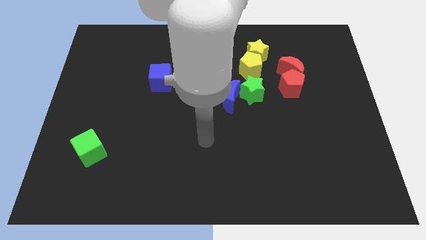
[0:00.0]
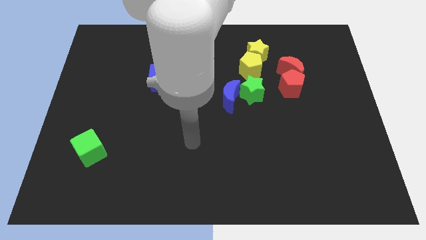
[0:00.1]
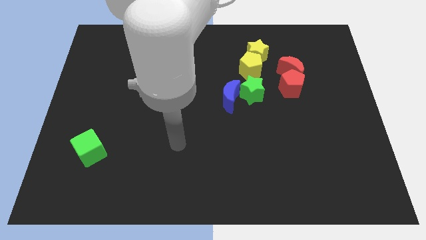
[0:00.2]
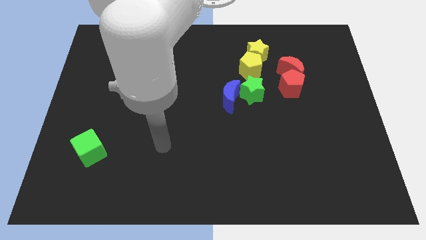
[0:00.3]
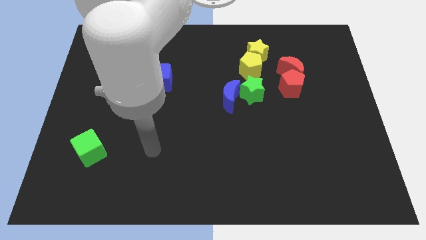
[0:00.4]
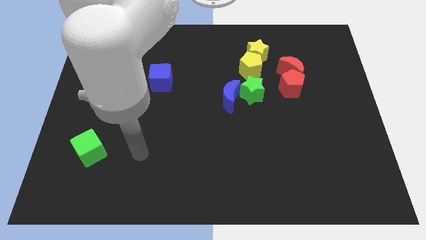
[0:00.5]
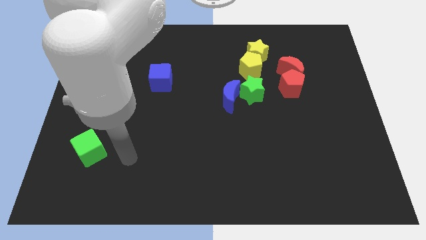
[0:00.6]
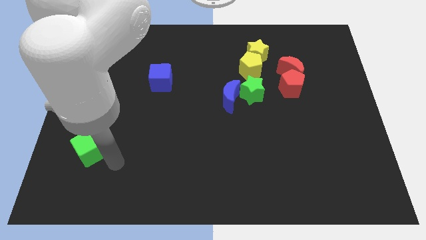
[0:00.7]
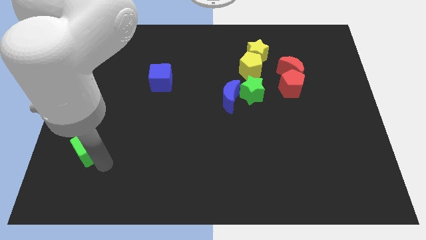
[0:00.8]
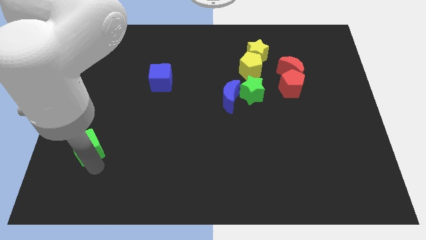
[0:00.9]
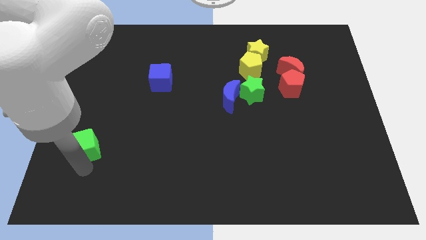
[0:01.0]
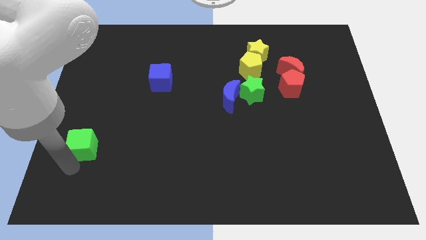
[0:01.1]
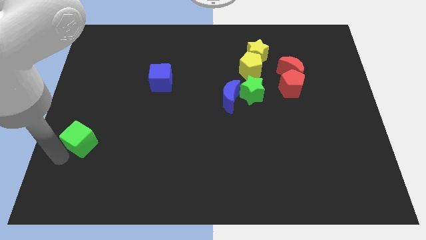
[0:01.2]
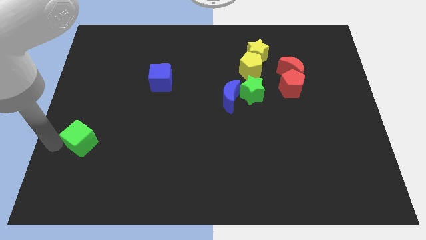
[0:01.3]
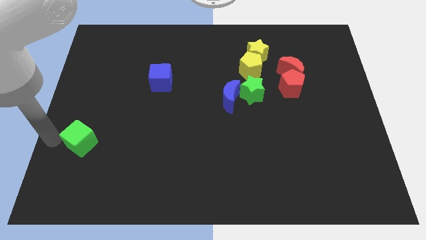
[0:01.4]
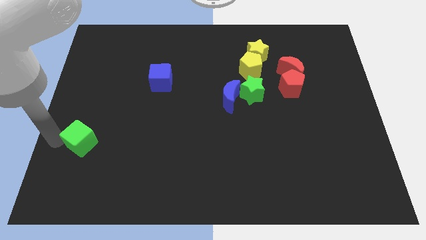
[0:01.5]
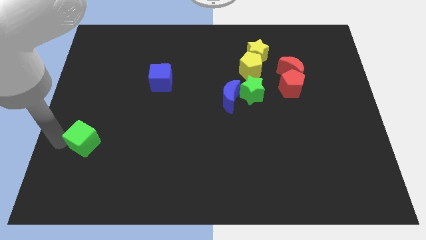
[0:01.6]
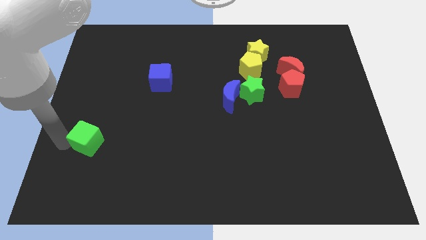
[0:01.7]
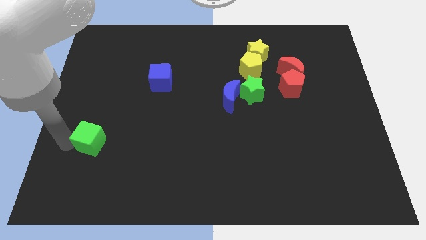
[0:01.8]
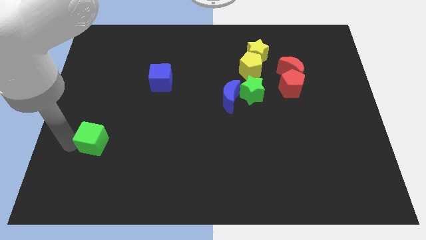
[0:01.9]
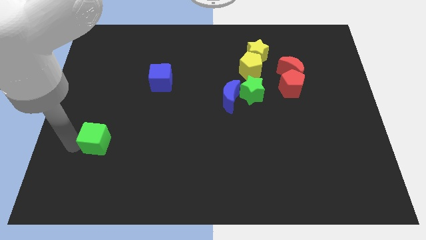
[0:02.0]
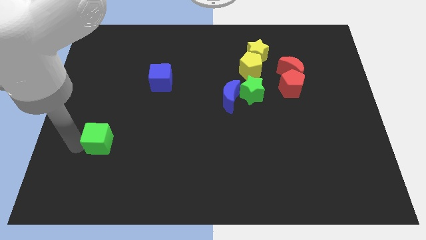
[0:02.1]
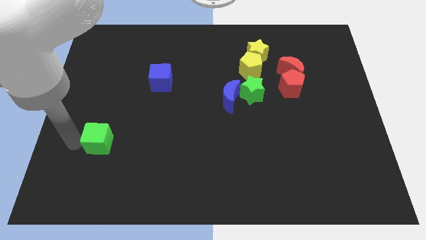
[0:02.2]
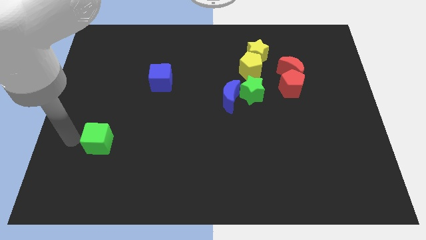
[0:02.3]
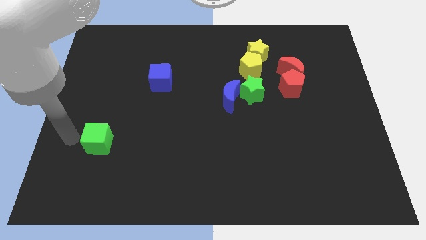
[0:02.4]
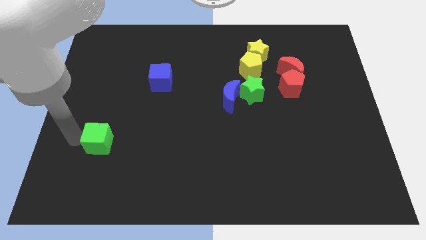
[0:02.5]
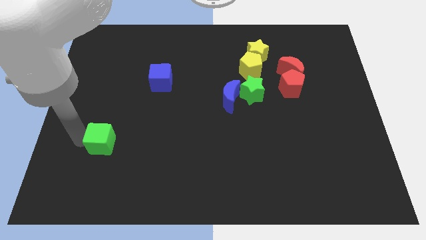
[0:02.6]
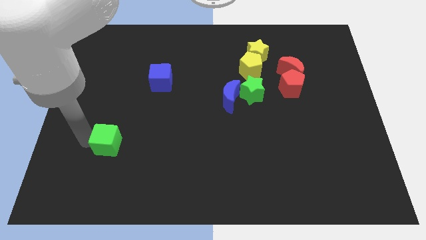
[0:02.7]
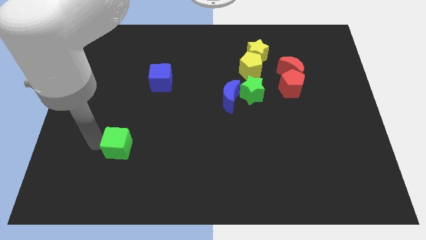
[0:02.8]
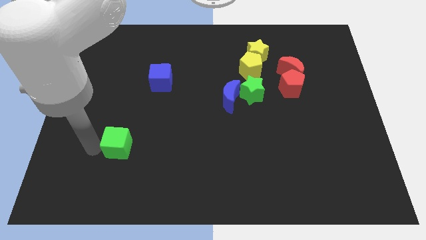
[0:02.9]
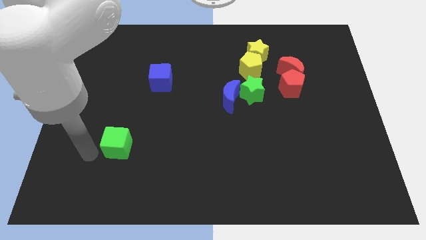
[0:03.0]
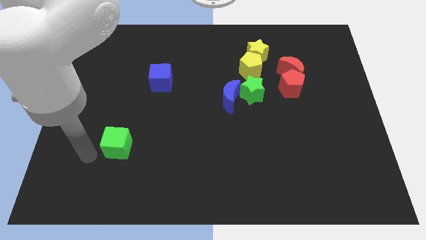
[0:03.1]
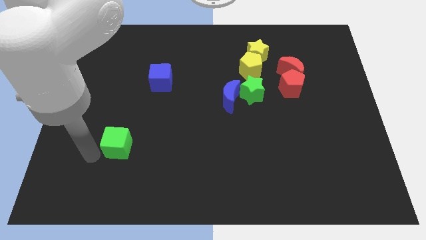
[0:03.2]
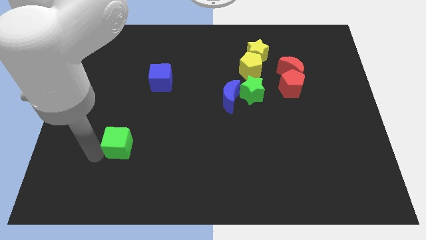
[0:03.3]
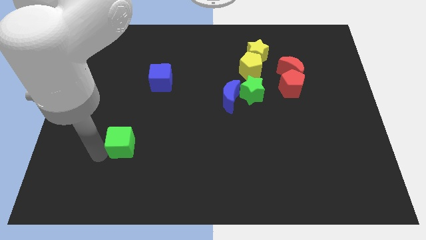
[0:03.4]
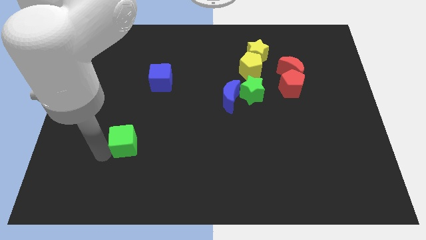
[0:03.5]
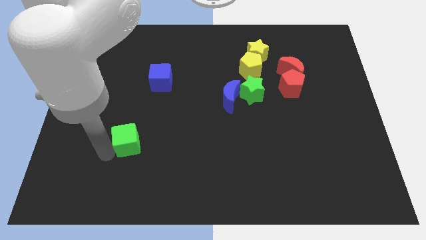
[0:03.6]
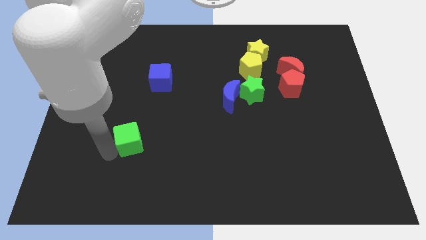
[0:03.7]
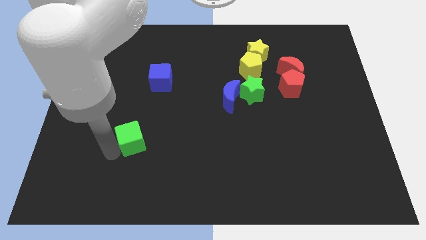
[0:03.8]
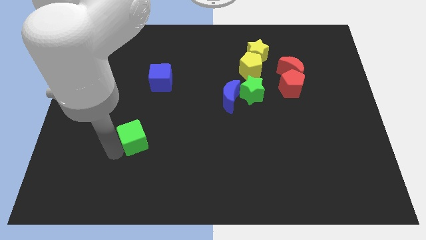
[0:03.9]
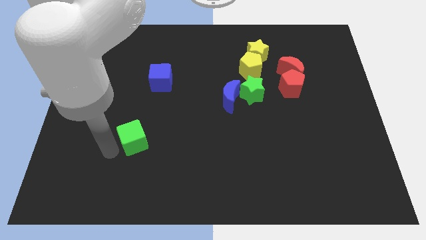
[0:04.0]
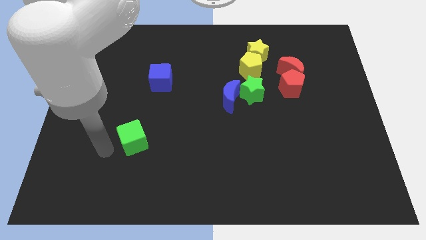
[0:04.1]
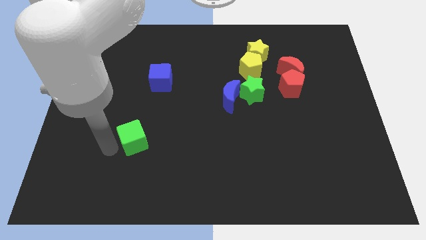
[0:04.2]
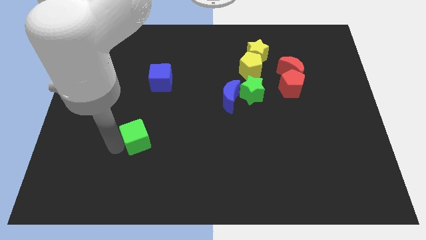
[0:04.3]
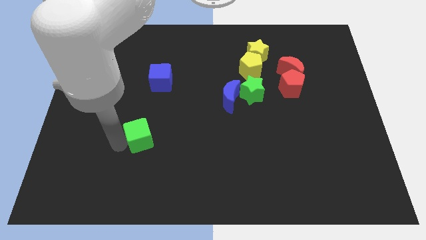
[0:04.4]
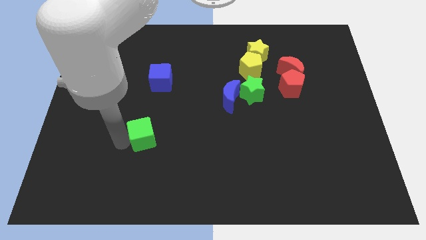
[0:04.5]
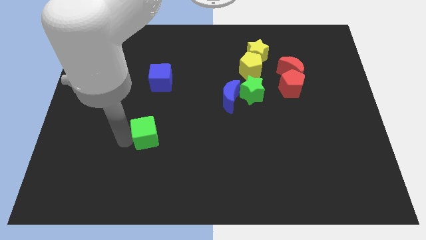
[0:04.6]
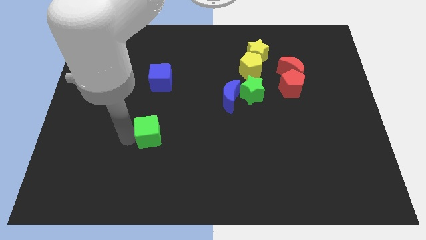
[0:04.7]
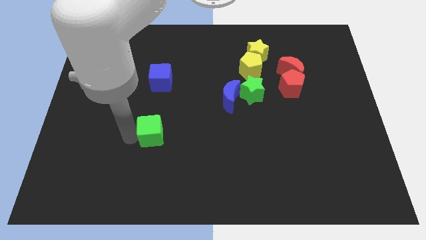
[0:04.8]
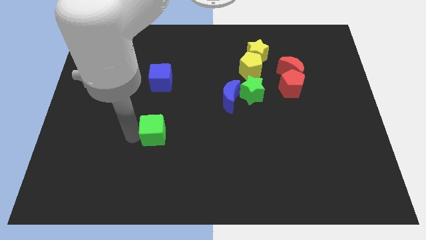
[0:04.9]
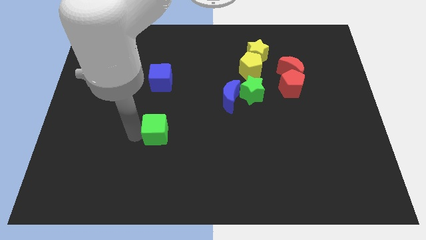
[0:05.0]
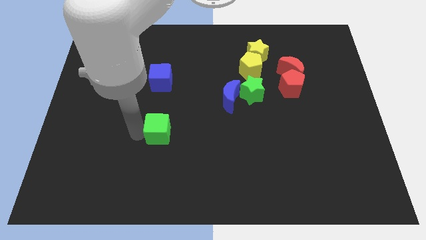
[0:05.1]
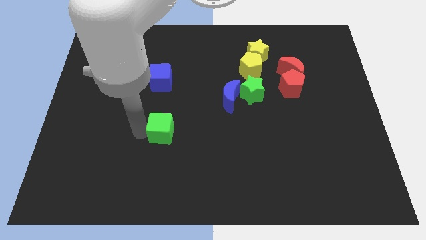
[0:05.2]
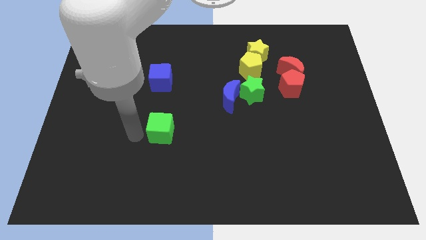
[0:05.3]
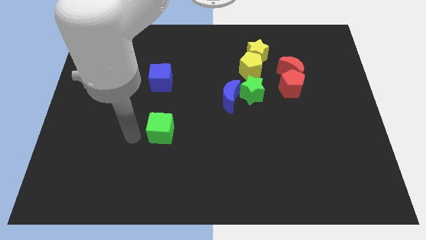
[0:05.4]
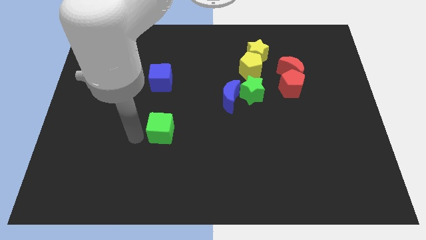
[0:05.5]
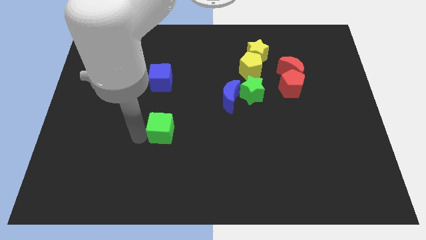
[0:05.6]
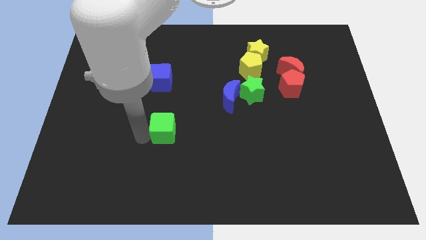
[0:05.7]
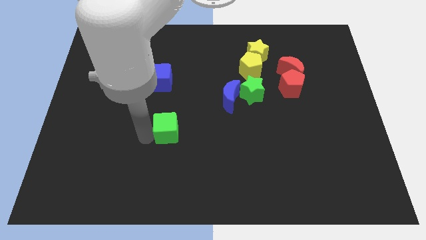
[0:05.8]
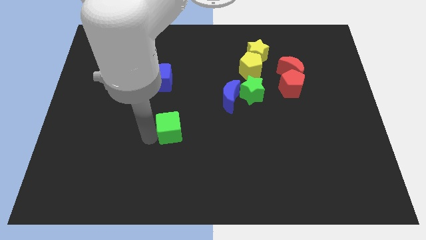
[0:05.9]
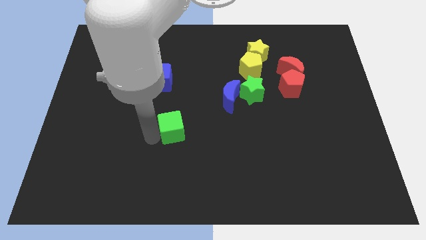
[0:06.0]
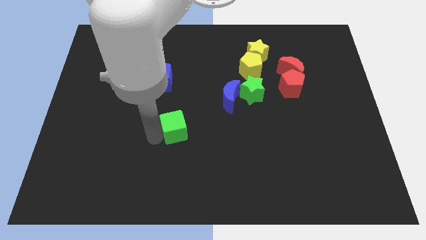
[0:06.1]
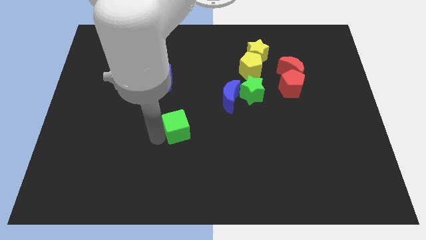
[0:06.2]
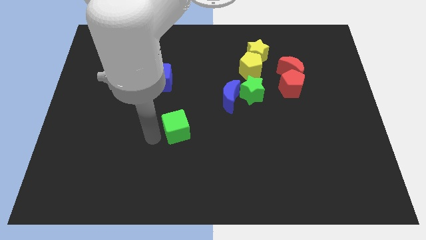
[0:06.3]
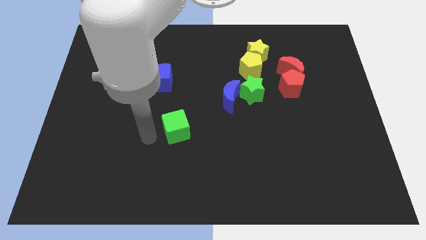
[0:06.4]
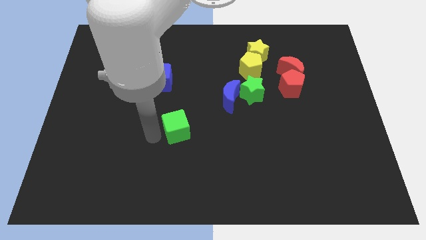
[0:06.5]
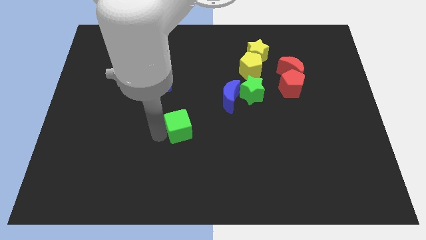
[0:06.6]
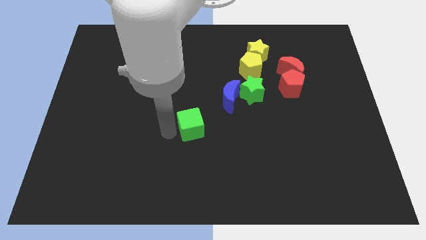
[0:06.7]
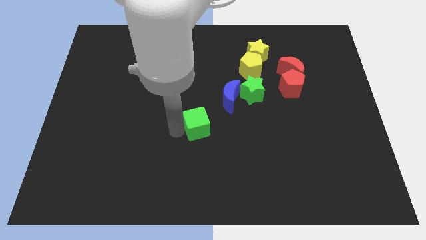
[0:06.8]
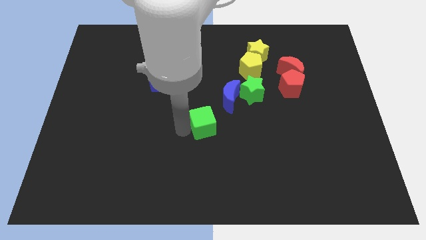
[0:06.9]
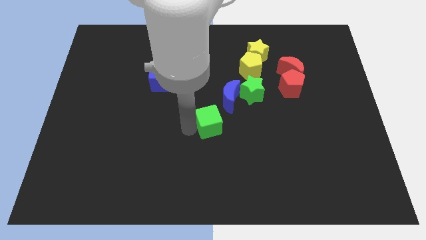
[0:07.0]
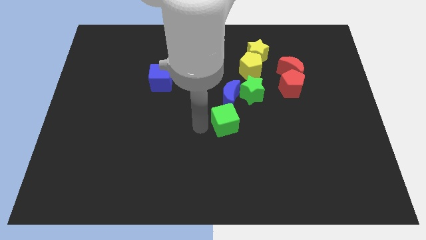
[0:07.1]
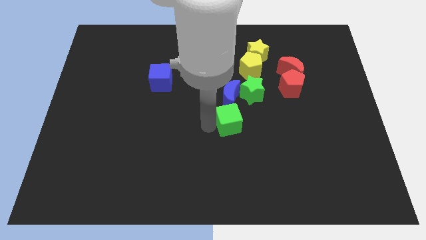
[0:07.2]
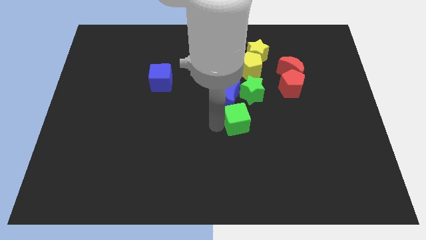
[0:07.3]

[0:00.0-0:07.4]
slide the green cube to the bottom right of the blue moon
